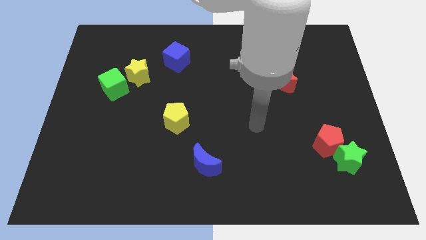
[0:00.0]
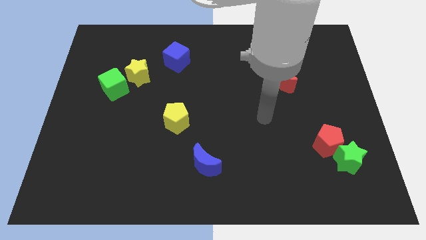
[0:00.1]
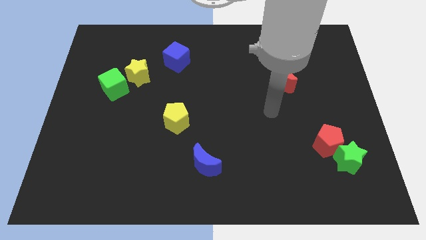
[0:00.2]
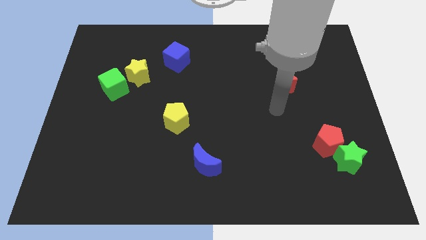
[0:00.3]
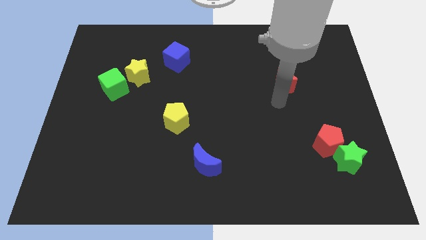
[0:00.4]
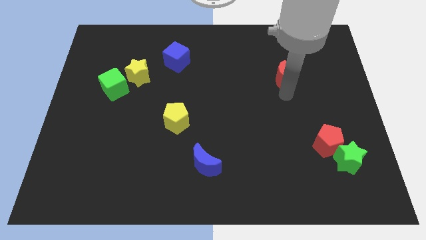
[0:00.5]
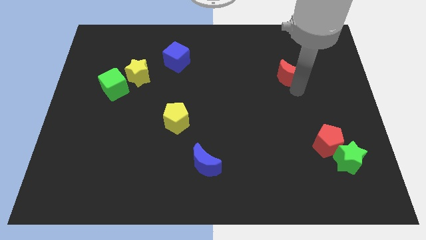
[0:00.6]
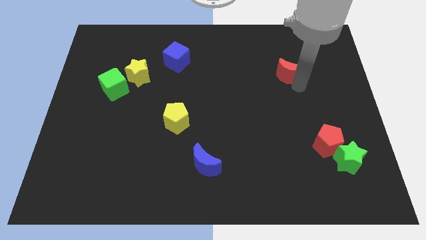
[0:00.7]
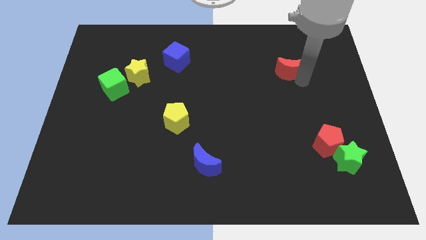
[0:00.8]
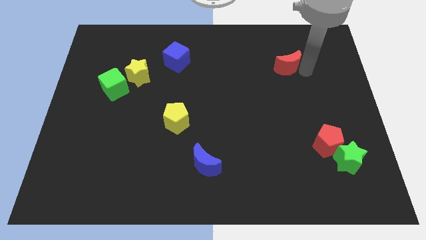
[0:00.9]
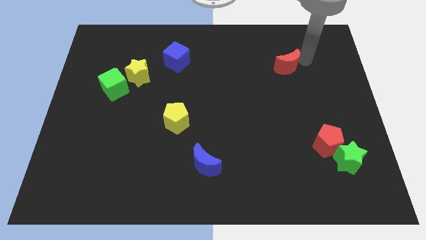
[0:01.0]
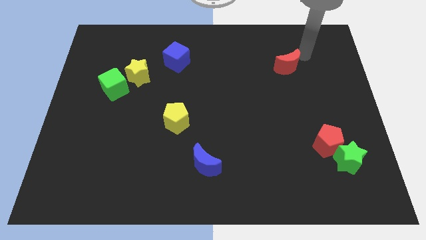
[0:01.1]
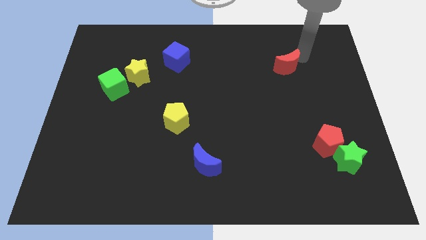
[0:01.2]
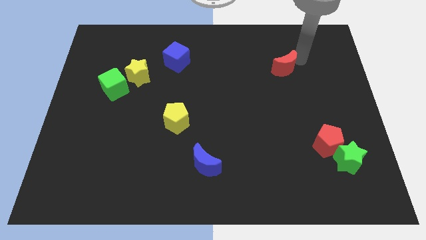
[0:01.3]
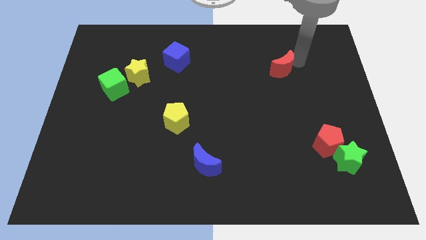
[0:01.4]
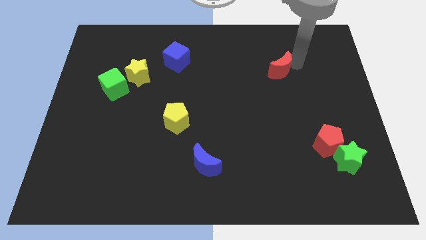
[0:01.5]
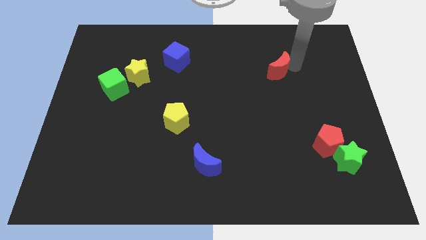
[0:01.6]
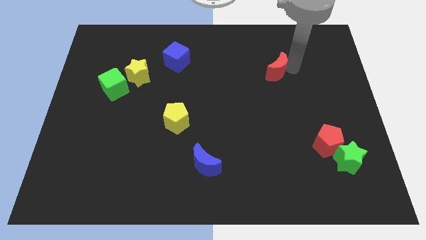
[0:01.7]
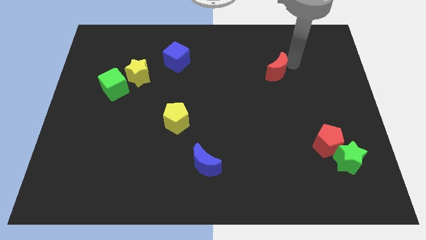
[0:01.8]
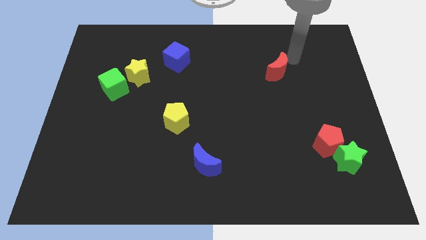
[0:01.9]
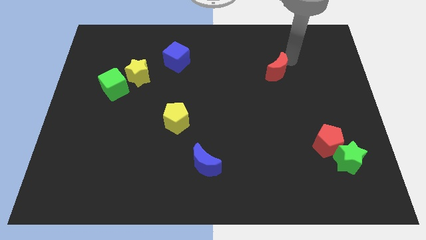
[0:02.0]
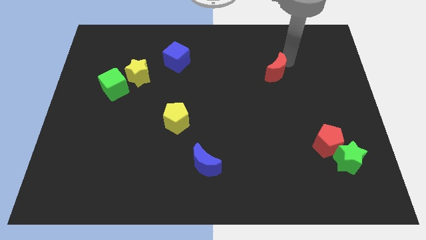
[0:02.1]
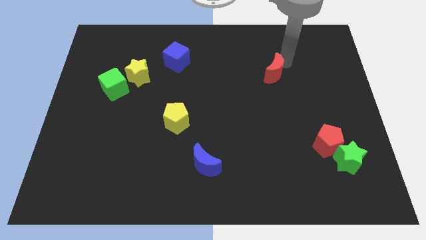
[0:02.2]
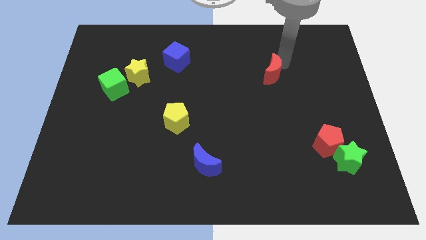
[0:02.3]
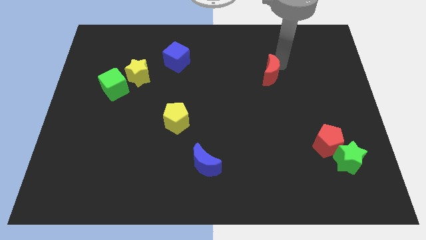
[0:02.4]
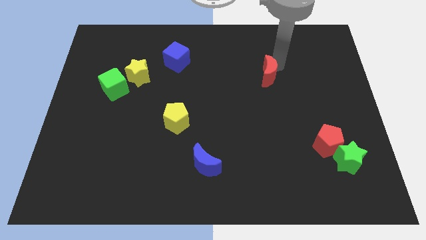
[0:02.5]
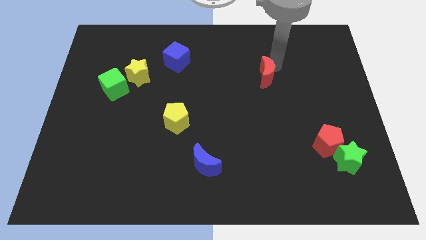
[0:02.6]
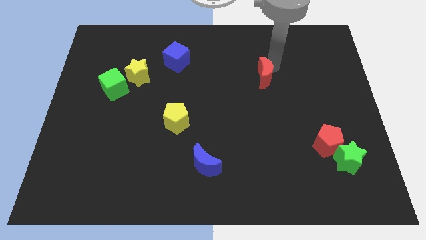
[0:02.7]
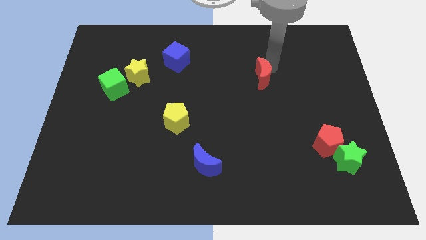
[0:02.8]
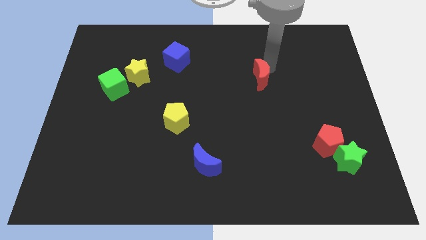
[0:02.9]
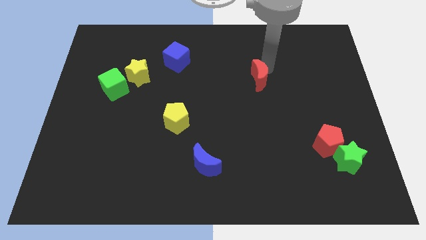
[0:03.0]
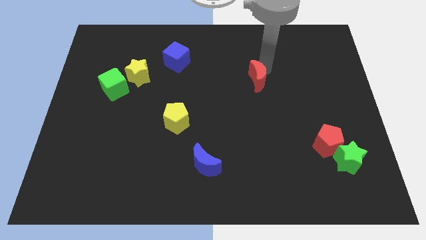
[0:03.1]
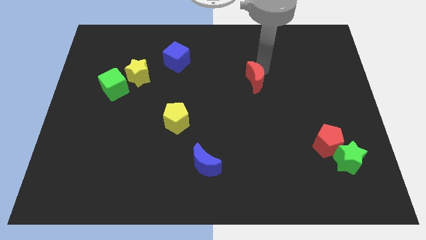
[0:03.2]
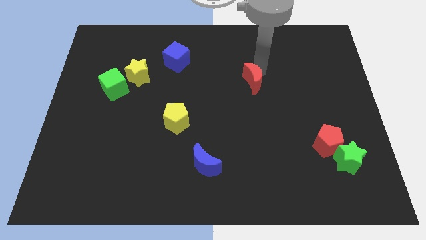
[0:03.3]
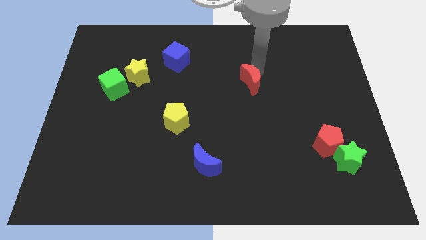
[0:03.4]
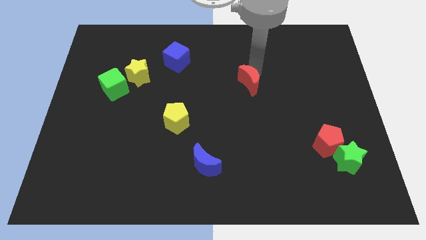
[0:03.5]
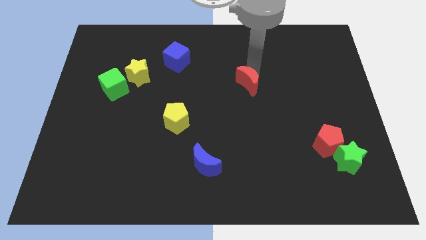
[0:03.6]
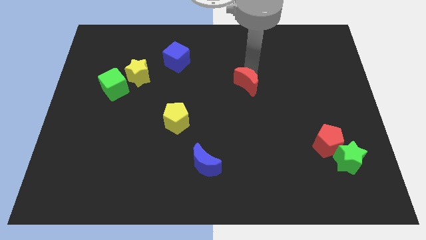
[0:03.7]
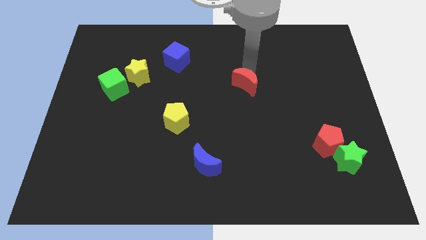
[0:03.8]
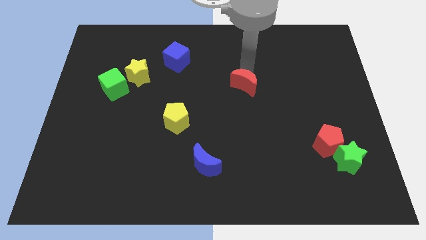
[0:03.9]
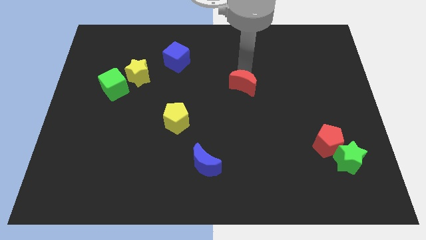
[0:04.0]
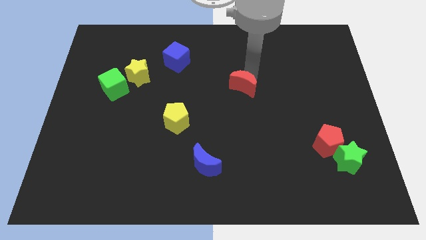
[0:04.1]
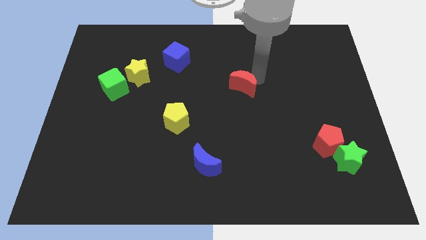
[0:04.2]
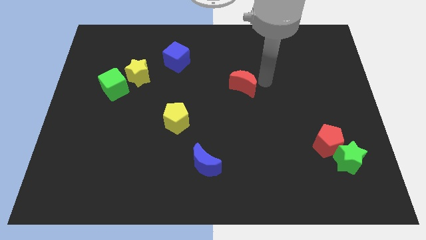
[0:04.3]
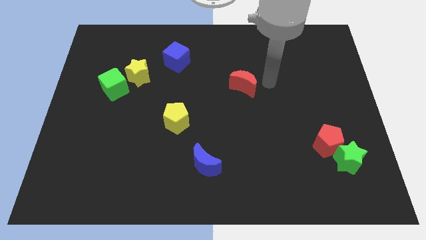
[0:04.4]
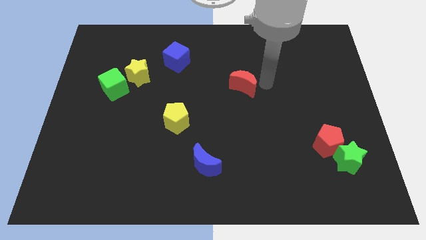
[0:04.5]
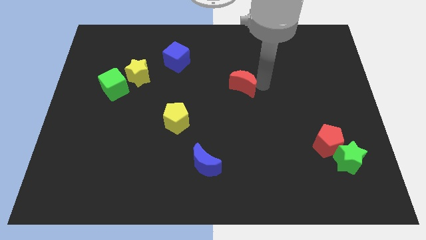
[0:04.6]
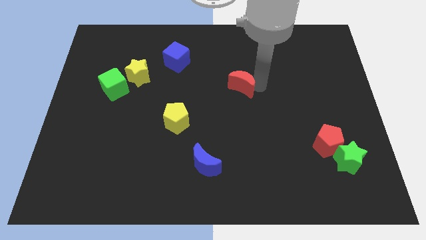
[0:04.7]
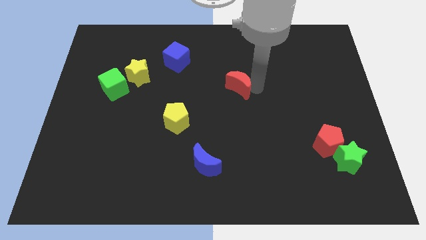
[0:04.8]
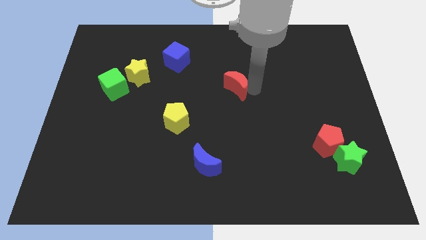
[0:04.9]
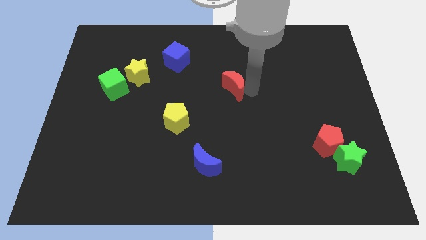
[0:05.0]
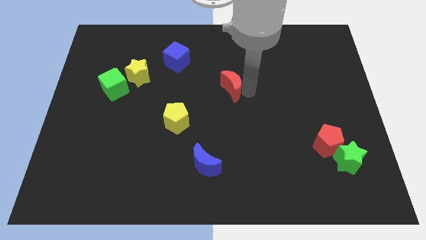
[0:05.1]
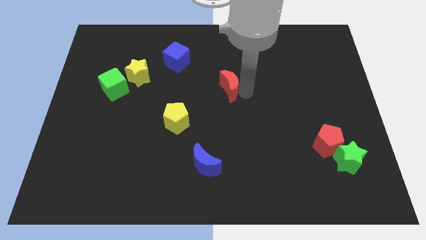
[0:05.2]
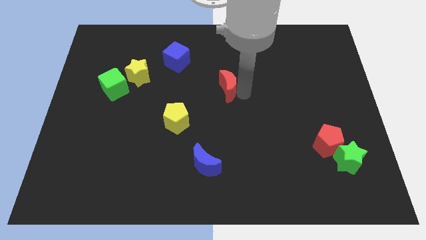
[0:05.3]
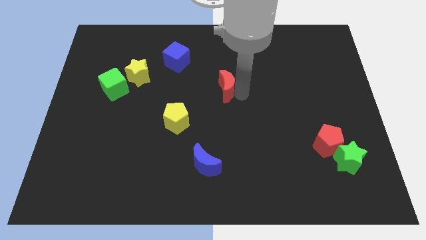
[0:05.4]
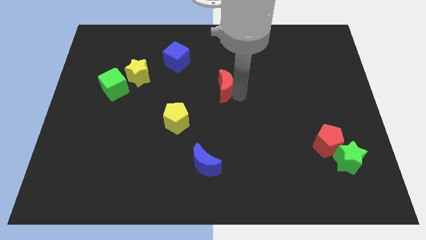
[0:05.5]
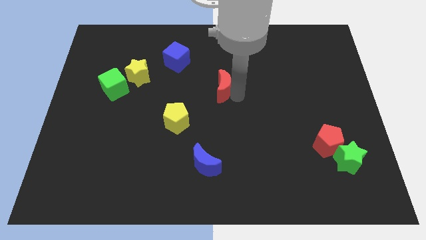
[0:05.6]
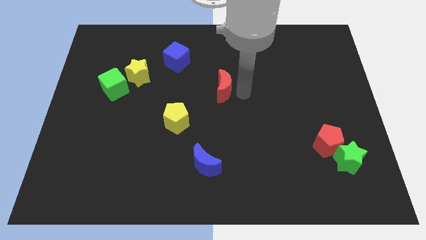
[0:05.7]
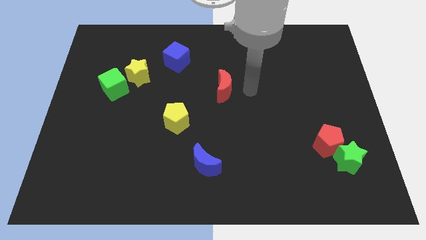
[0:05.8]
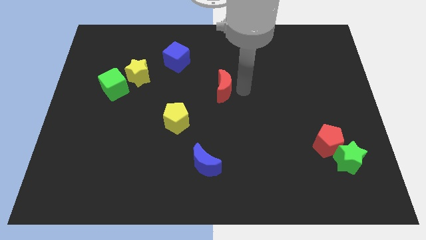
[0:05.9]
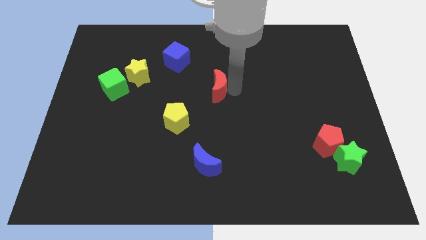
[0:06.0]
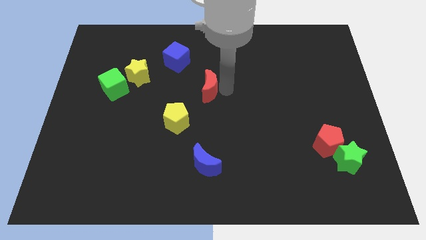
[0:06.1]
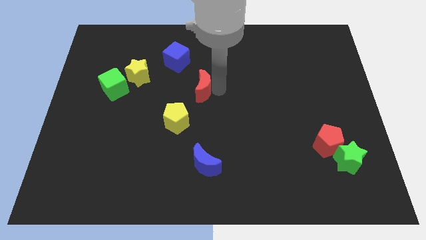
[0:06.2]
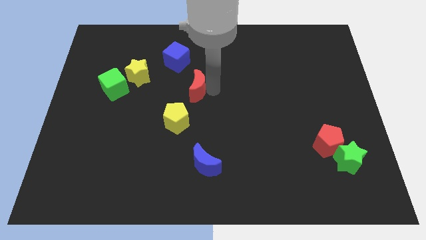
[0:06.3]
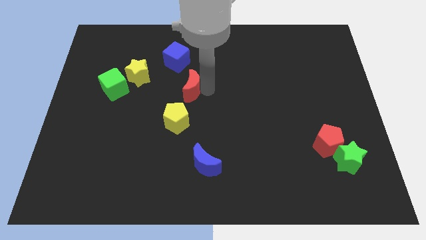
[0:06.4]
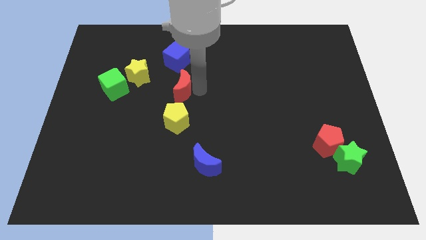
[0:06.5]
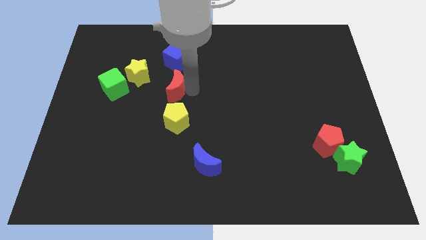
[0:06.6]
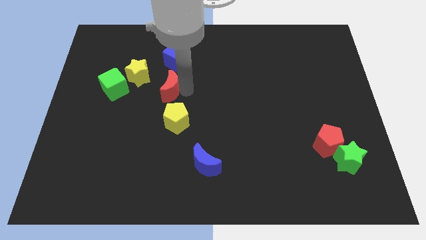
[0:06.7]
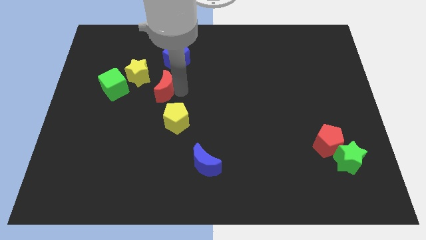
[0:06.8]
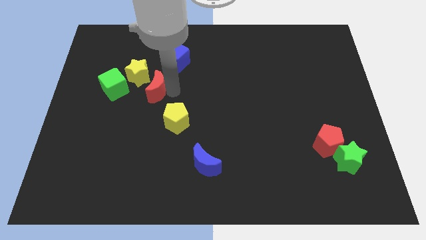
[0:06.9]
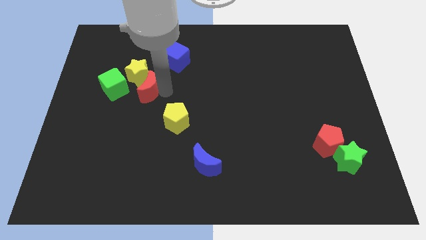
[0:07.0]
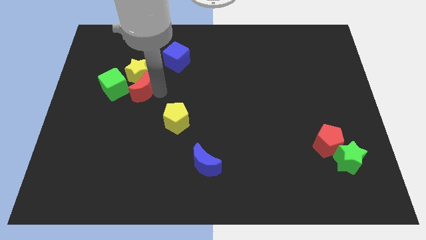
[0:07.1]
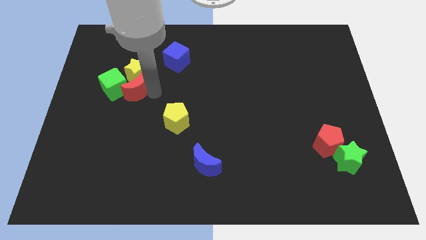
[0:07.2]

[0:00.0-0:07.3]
slide the red moon next to the green cube

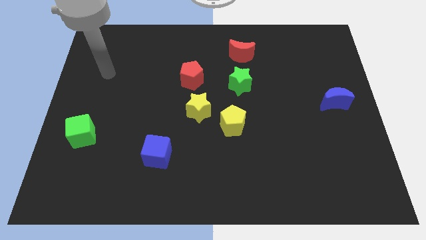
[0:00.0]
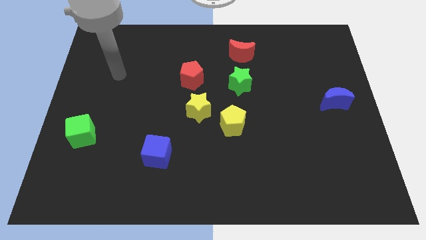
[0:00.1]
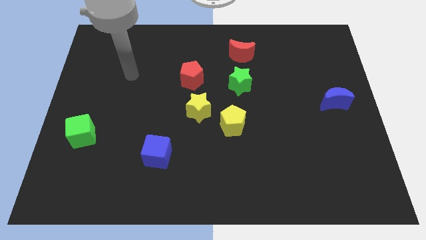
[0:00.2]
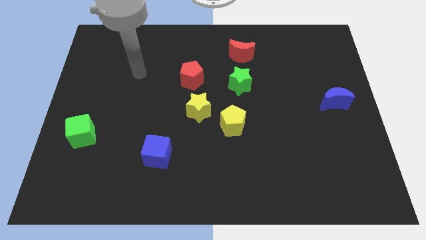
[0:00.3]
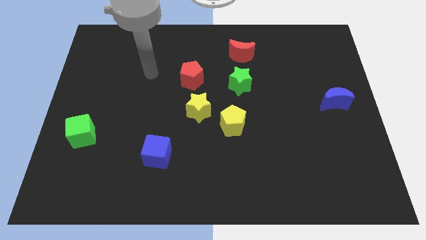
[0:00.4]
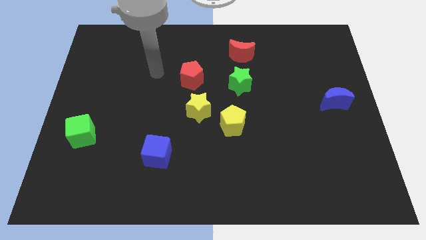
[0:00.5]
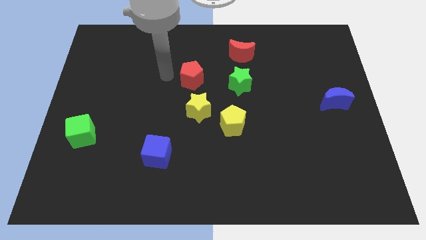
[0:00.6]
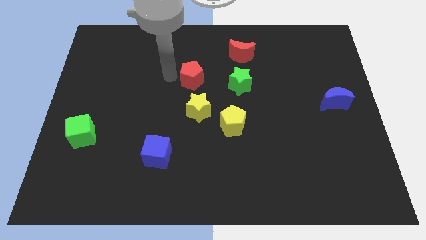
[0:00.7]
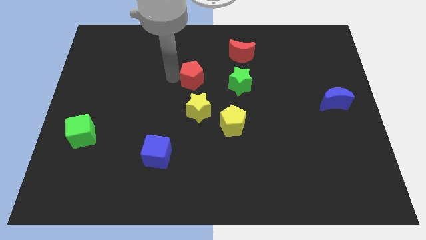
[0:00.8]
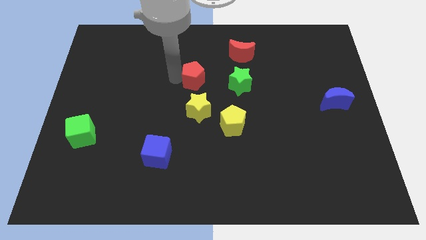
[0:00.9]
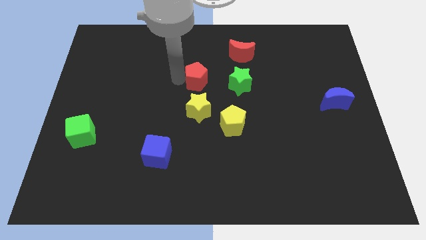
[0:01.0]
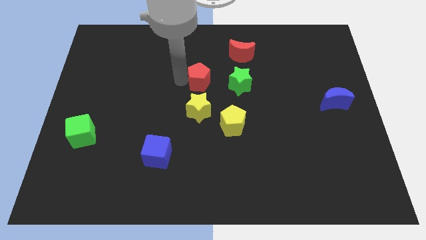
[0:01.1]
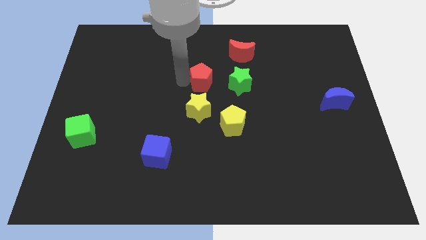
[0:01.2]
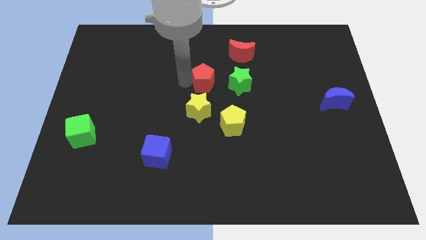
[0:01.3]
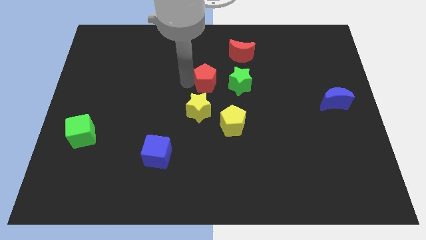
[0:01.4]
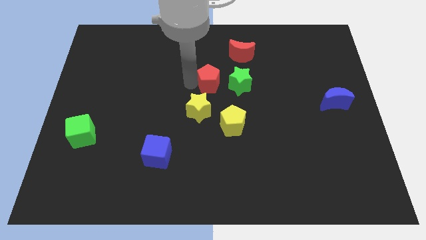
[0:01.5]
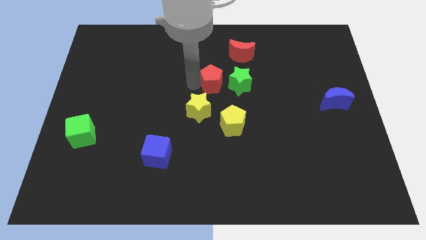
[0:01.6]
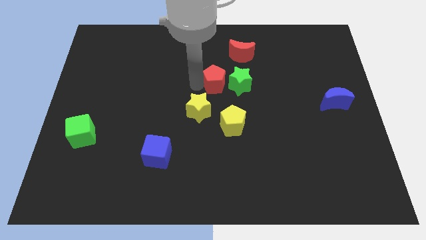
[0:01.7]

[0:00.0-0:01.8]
put the red pentagon towards the green star
